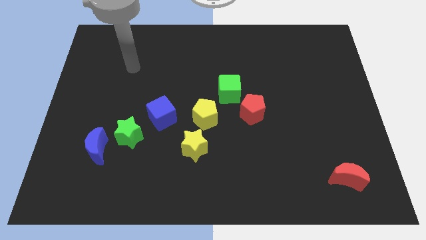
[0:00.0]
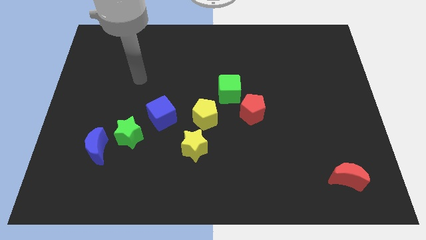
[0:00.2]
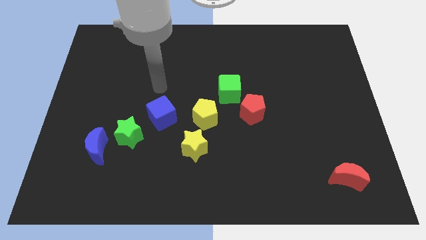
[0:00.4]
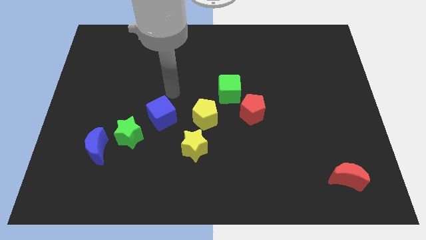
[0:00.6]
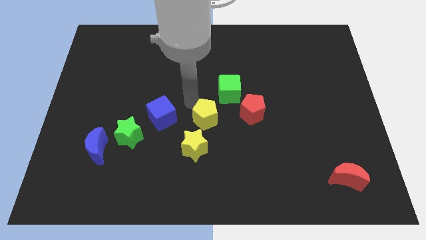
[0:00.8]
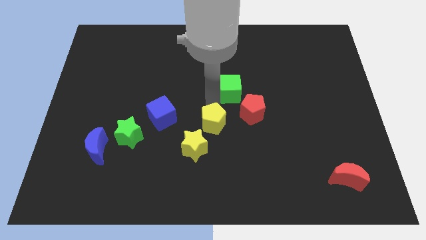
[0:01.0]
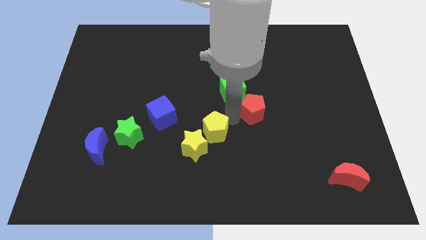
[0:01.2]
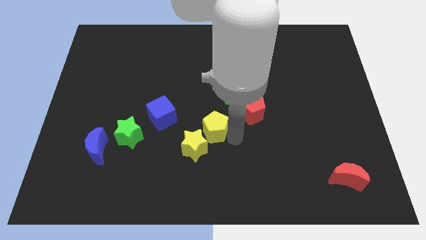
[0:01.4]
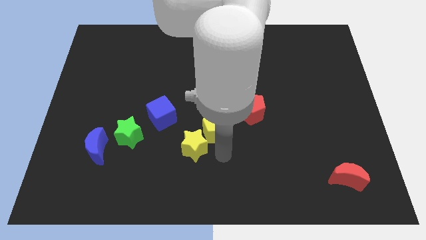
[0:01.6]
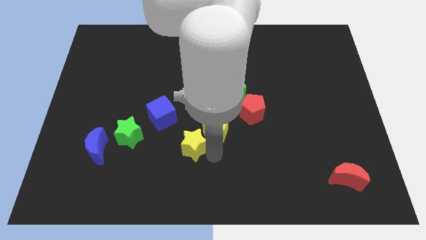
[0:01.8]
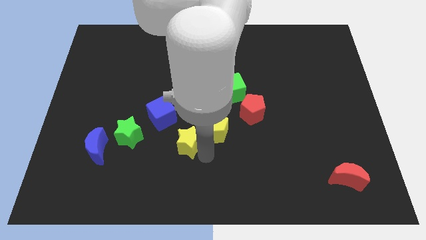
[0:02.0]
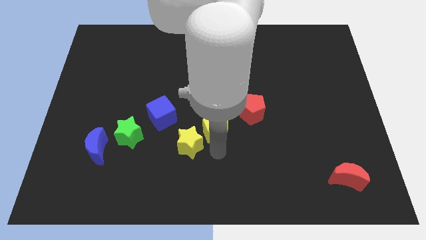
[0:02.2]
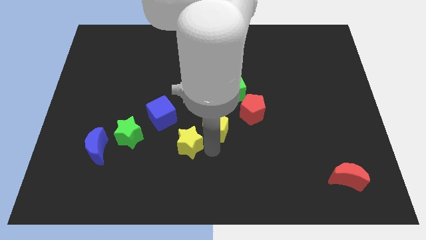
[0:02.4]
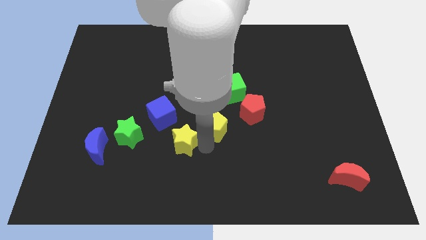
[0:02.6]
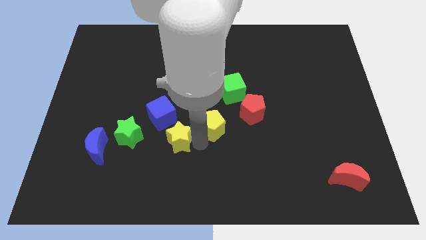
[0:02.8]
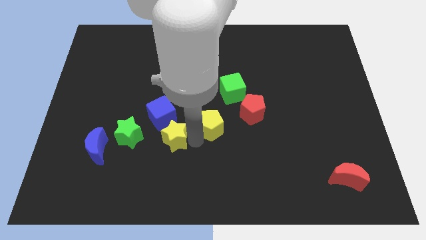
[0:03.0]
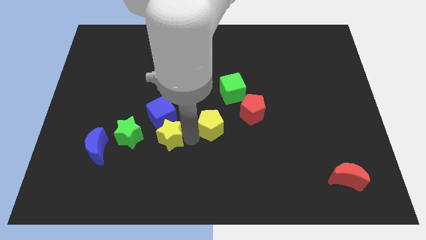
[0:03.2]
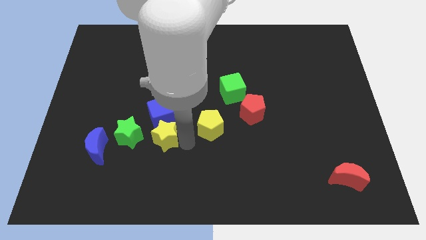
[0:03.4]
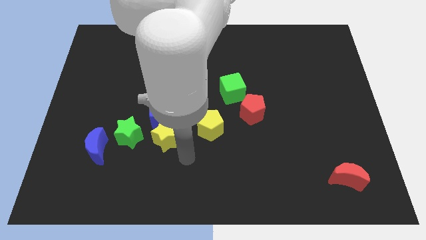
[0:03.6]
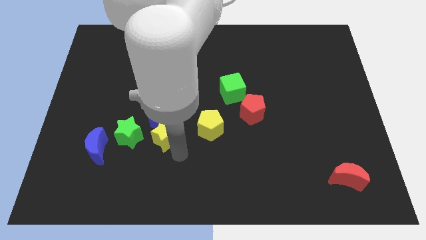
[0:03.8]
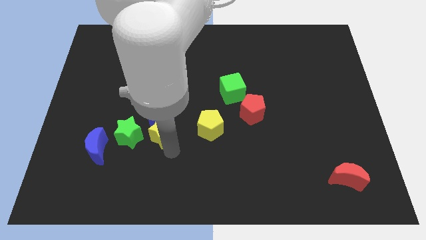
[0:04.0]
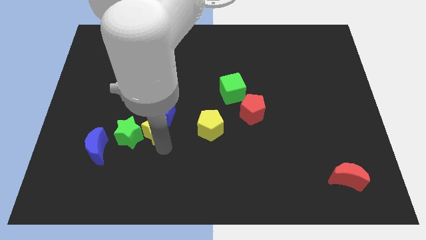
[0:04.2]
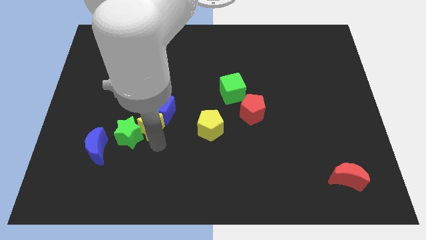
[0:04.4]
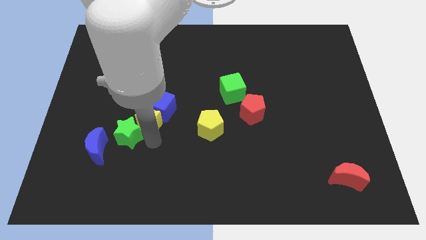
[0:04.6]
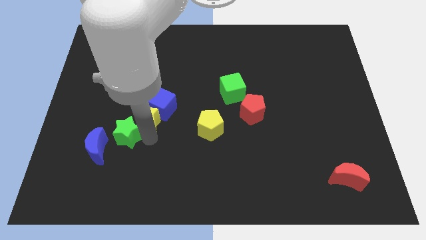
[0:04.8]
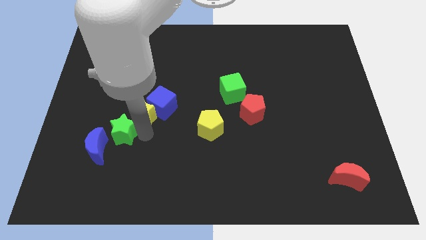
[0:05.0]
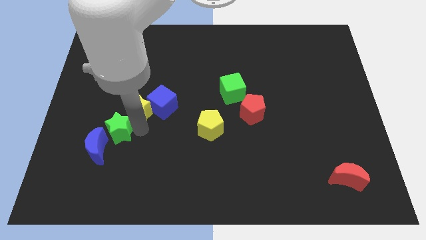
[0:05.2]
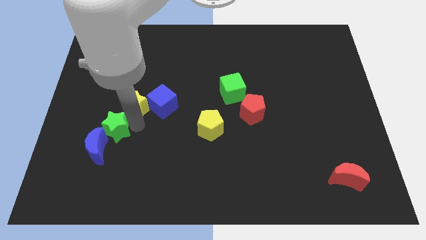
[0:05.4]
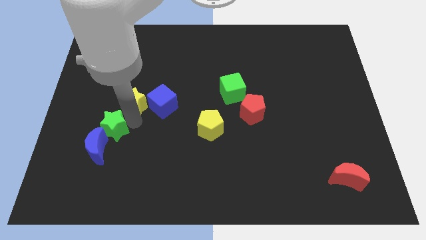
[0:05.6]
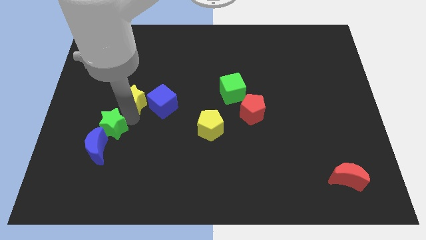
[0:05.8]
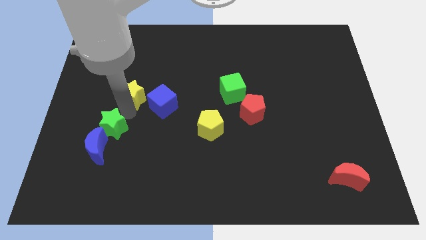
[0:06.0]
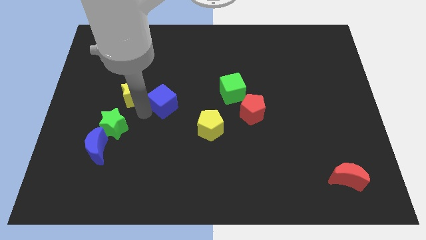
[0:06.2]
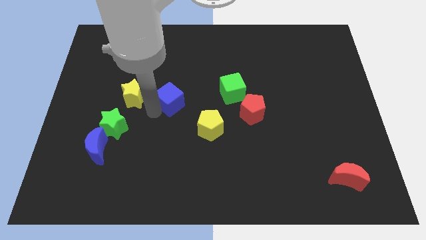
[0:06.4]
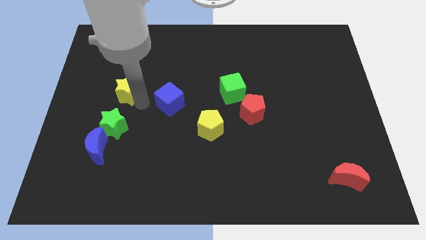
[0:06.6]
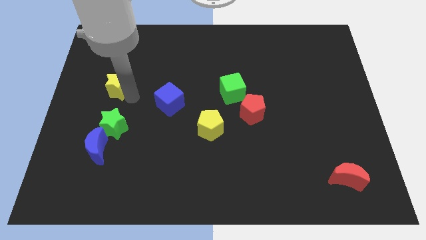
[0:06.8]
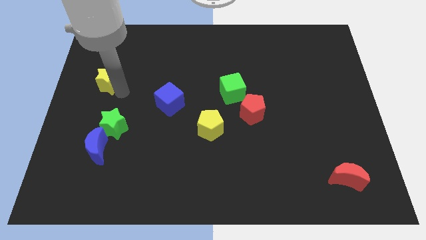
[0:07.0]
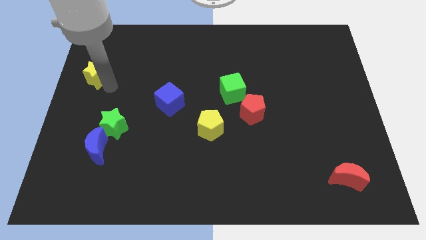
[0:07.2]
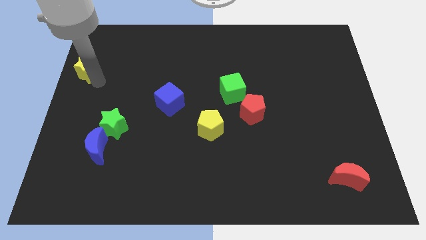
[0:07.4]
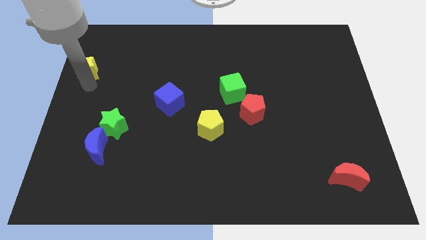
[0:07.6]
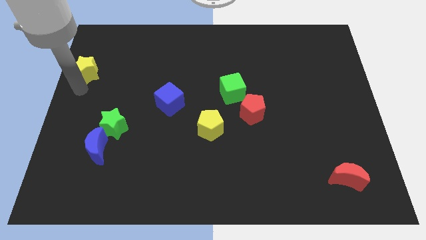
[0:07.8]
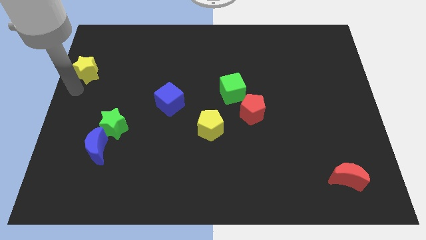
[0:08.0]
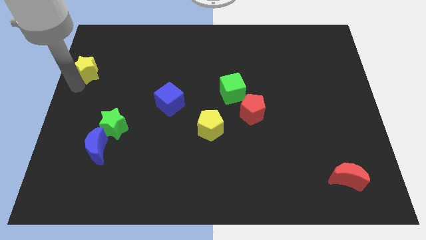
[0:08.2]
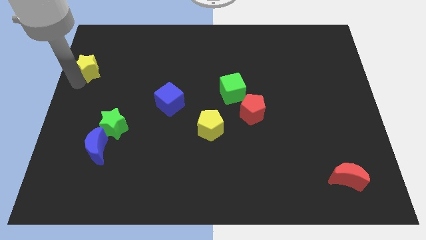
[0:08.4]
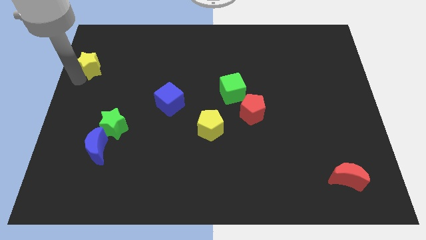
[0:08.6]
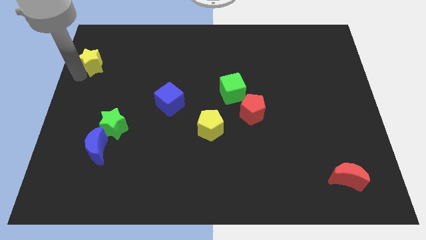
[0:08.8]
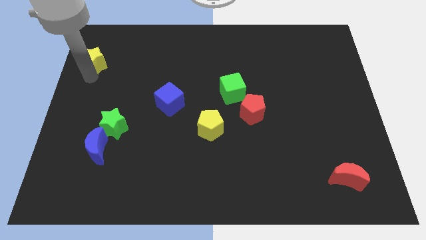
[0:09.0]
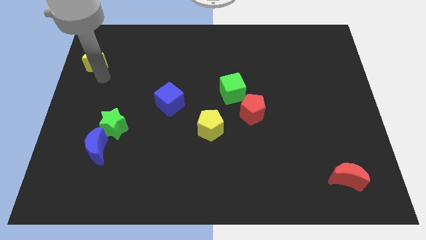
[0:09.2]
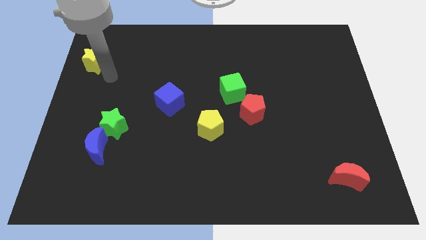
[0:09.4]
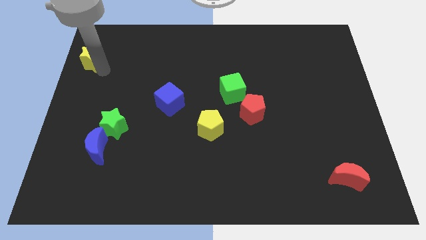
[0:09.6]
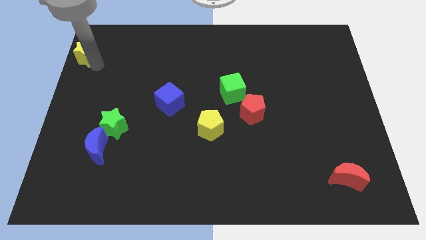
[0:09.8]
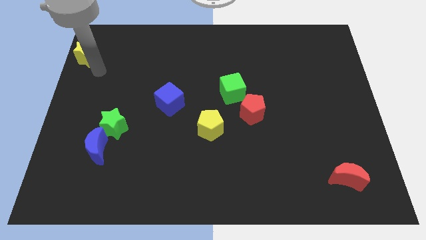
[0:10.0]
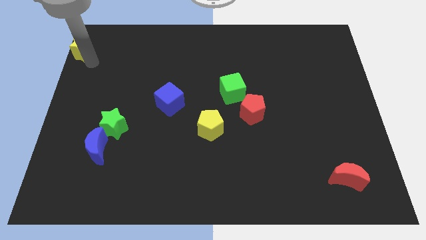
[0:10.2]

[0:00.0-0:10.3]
push the yellow star to the top left

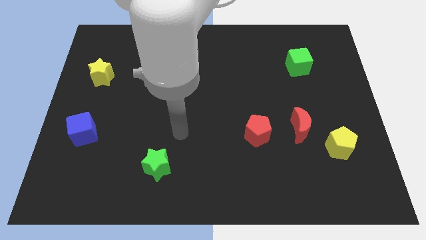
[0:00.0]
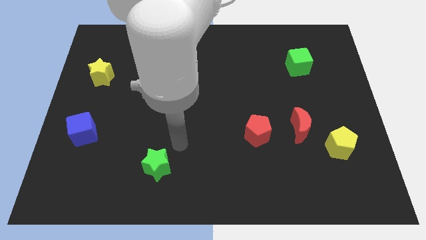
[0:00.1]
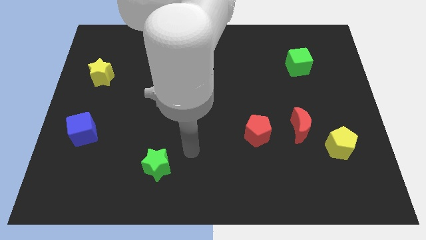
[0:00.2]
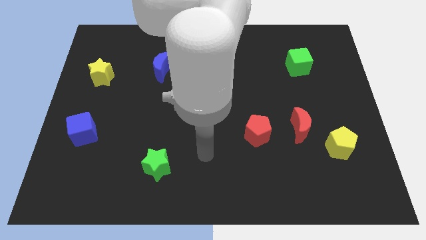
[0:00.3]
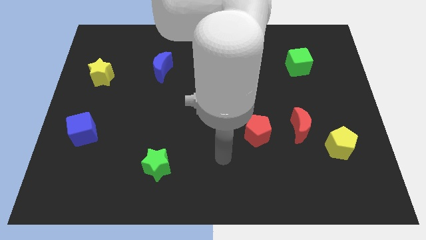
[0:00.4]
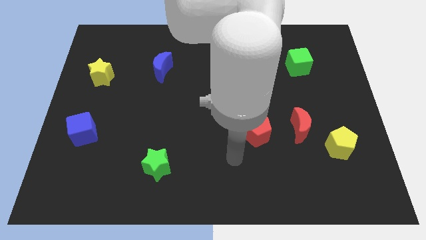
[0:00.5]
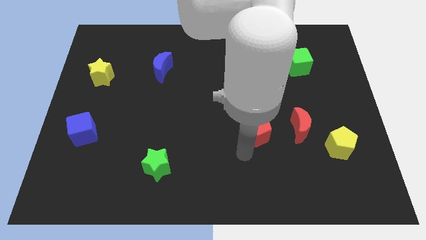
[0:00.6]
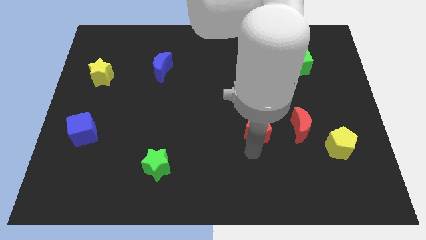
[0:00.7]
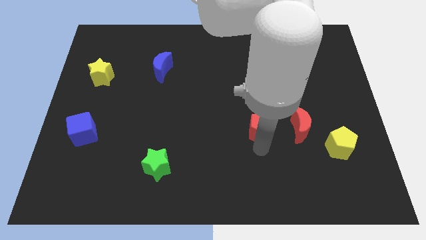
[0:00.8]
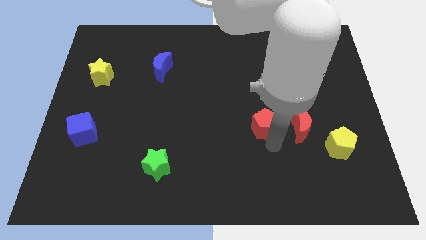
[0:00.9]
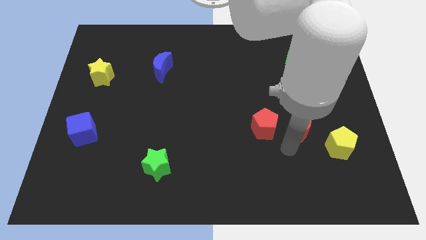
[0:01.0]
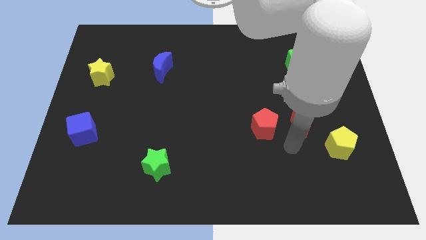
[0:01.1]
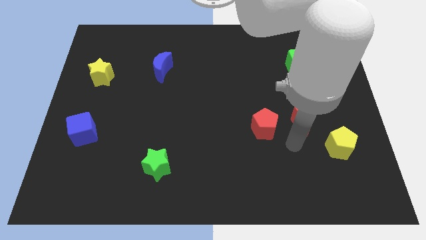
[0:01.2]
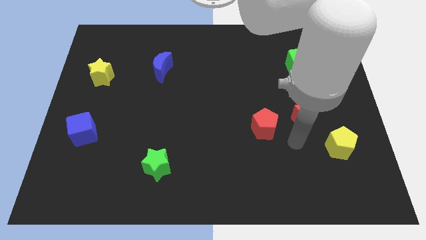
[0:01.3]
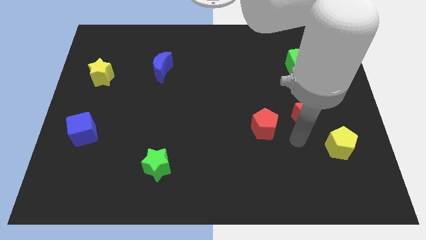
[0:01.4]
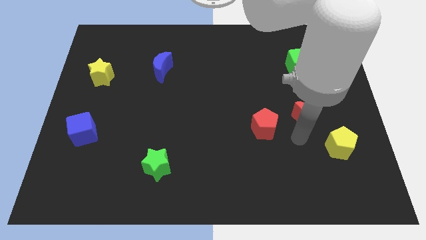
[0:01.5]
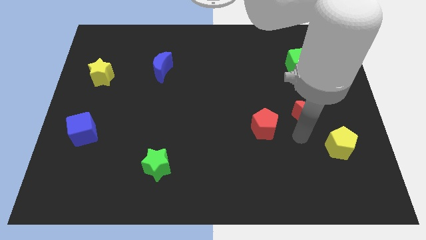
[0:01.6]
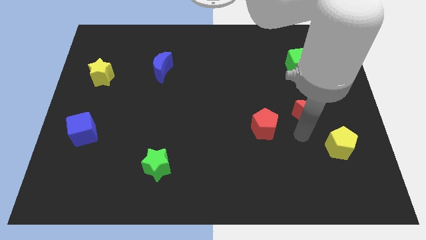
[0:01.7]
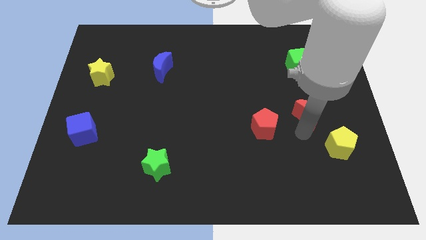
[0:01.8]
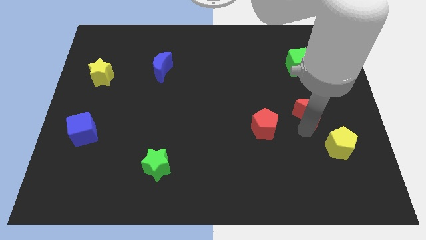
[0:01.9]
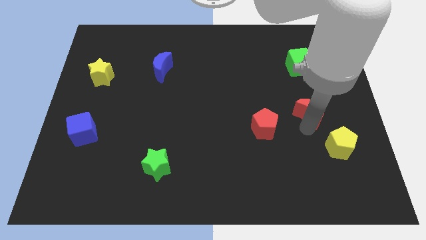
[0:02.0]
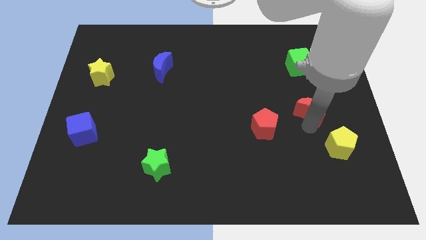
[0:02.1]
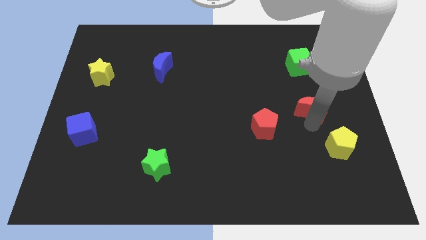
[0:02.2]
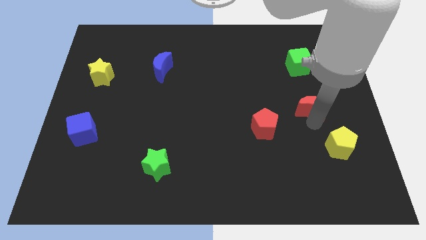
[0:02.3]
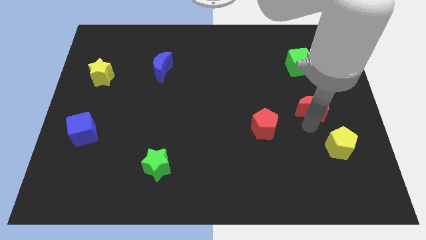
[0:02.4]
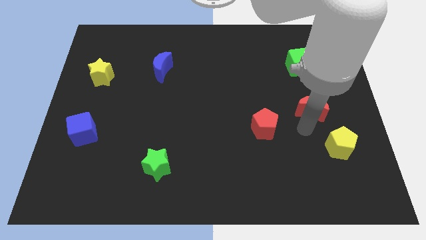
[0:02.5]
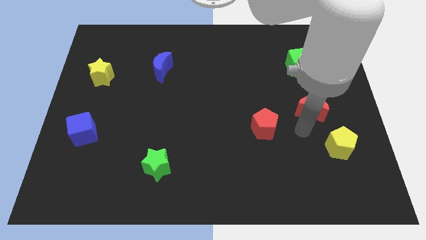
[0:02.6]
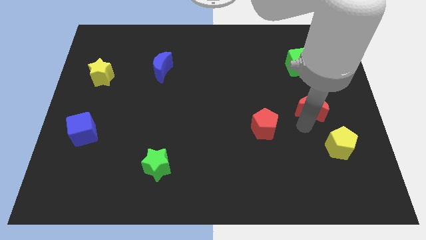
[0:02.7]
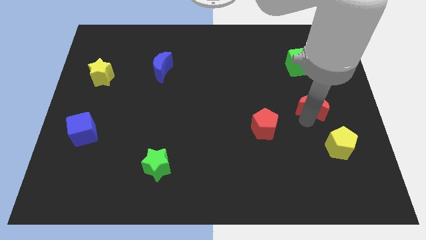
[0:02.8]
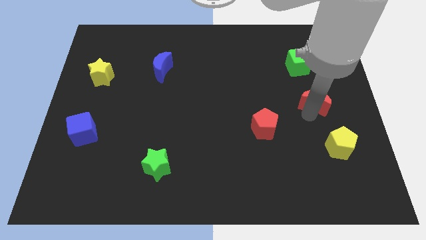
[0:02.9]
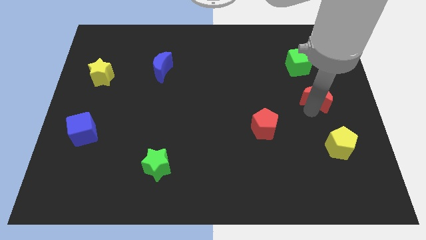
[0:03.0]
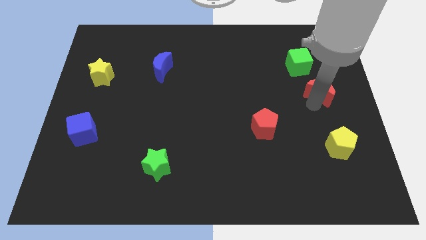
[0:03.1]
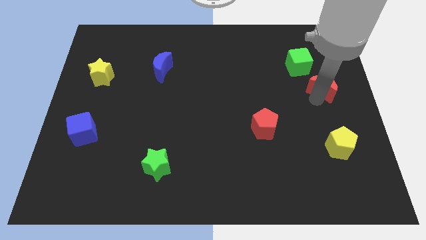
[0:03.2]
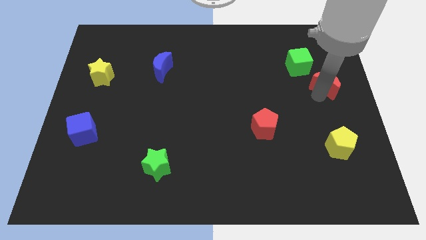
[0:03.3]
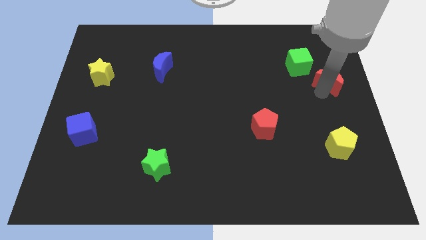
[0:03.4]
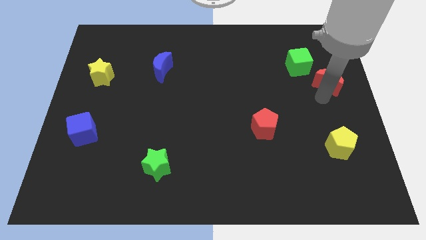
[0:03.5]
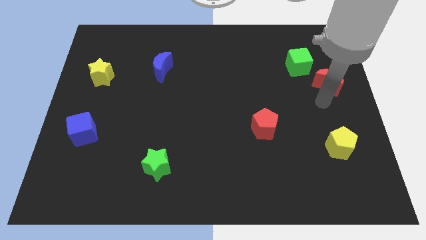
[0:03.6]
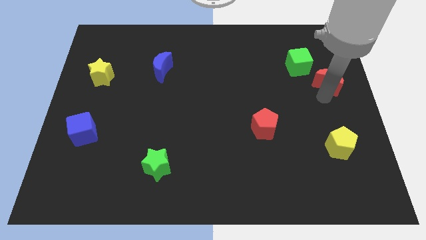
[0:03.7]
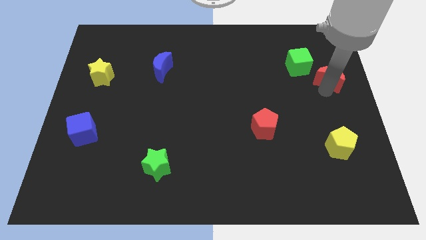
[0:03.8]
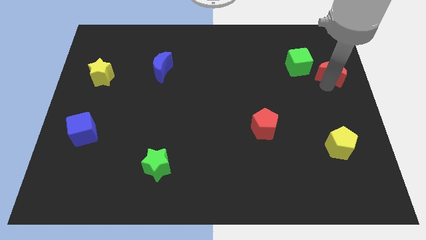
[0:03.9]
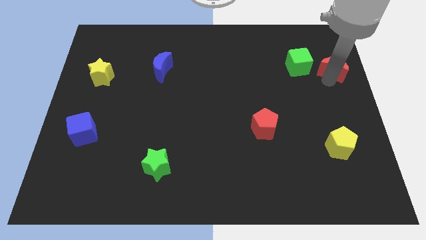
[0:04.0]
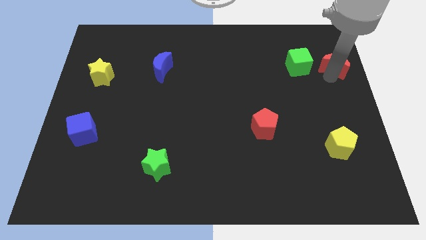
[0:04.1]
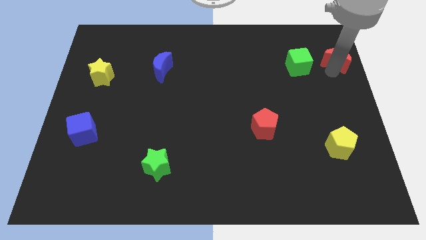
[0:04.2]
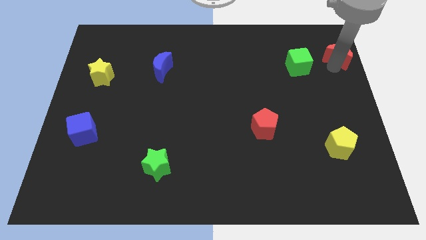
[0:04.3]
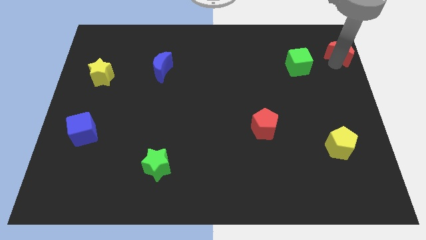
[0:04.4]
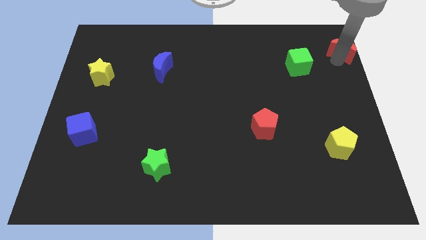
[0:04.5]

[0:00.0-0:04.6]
slide the red moon to the upper right corner
